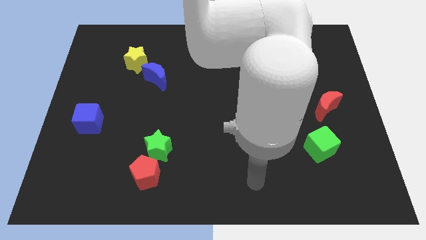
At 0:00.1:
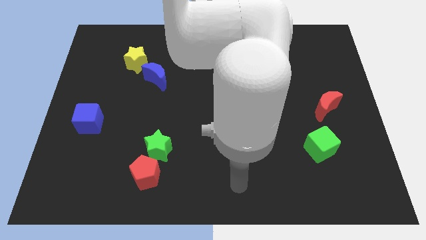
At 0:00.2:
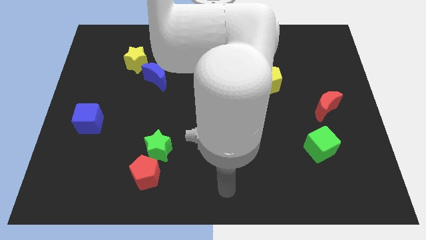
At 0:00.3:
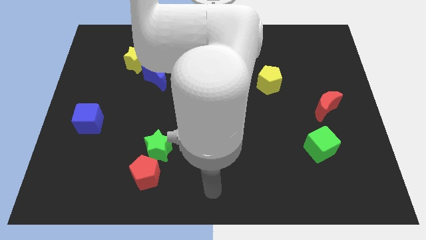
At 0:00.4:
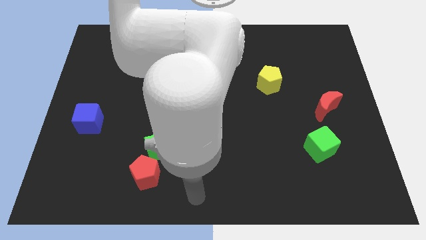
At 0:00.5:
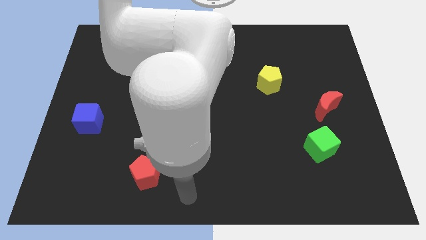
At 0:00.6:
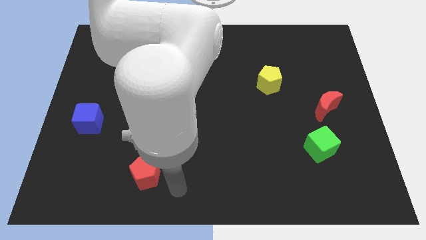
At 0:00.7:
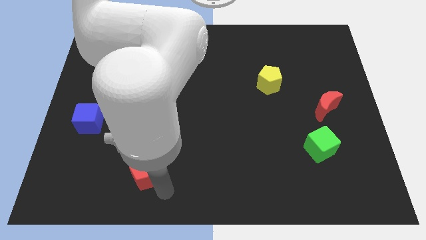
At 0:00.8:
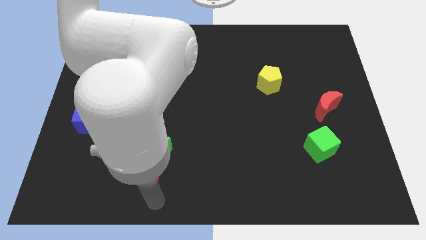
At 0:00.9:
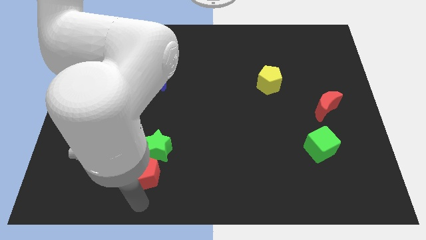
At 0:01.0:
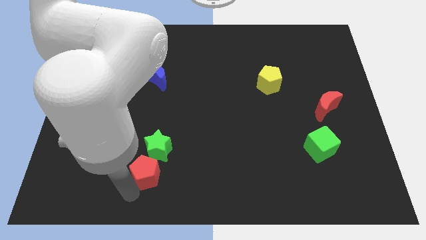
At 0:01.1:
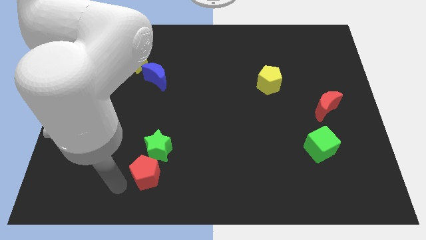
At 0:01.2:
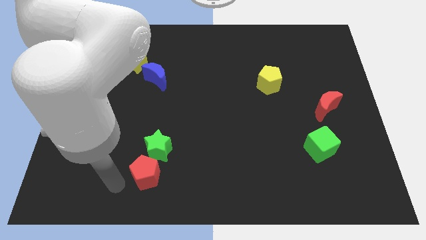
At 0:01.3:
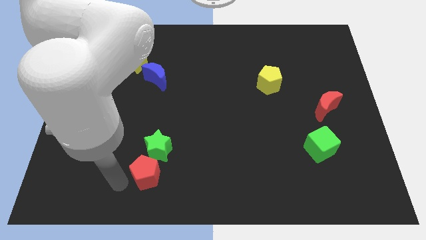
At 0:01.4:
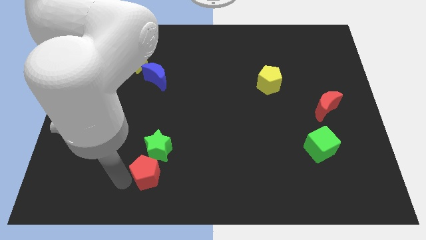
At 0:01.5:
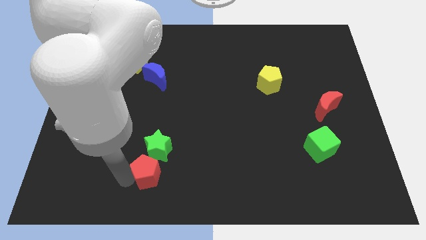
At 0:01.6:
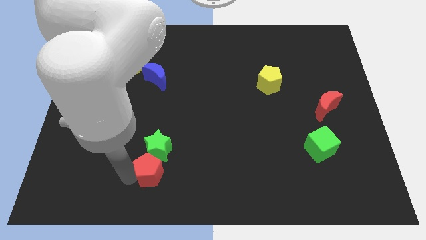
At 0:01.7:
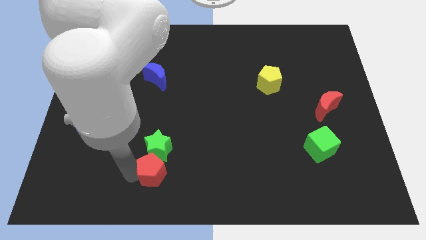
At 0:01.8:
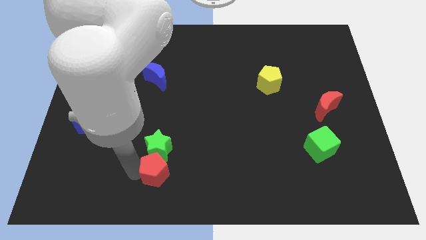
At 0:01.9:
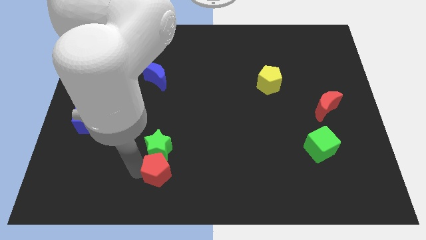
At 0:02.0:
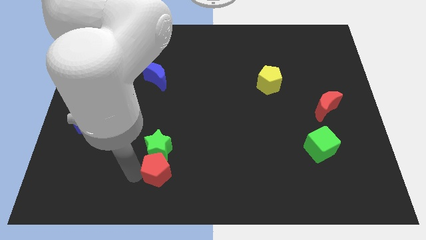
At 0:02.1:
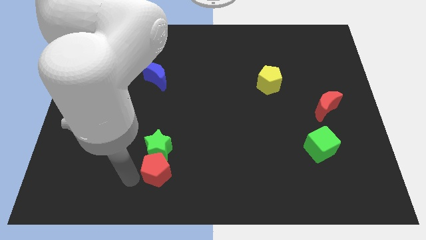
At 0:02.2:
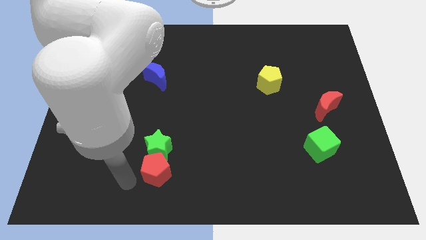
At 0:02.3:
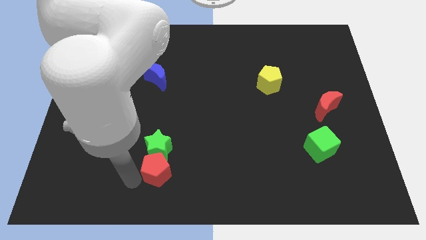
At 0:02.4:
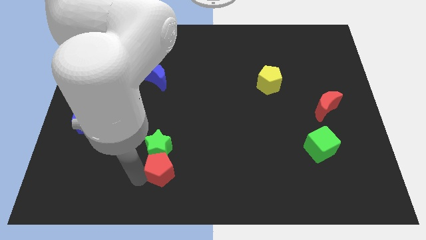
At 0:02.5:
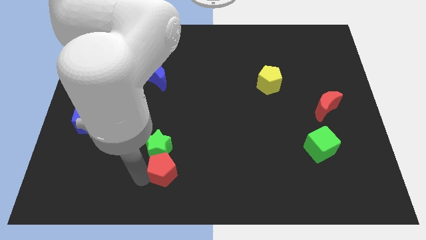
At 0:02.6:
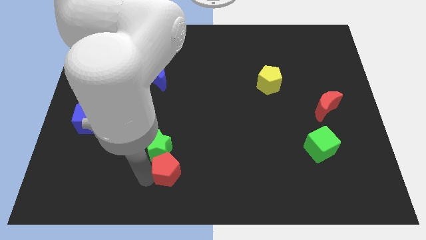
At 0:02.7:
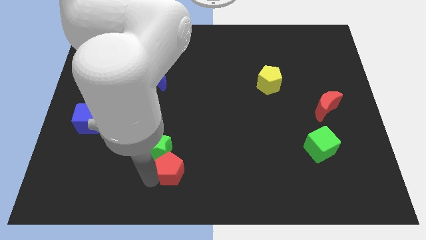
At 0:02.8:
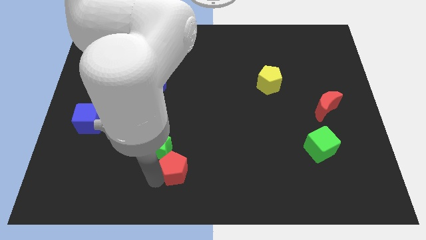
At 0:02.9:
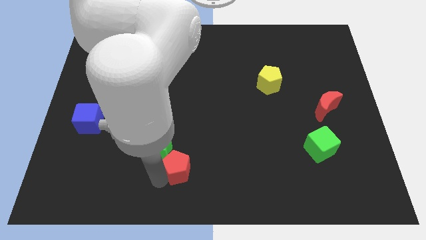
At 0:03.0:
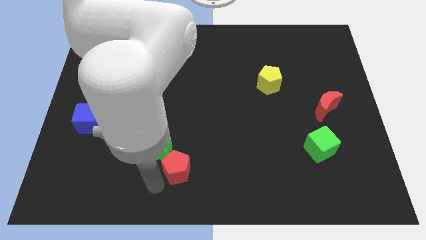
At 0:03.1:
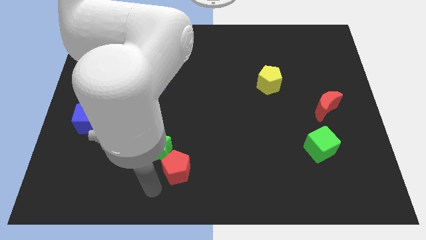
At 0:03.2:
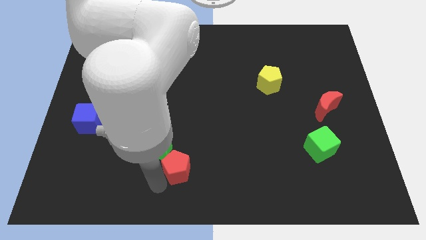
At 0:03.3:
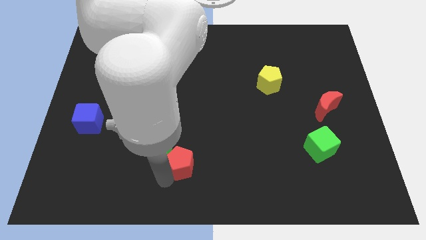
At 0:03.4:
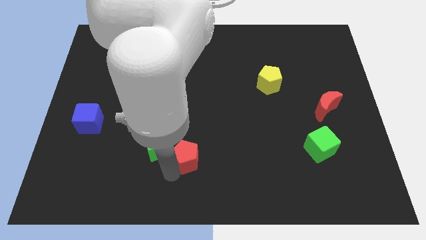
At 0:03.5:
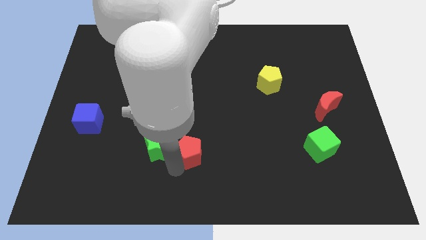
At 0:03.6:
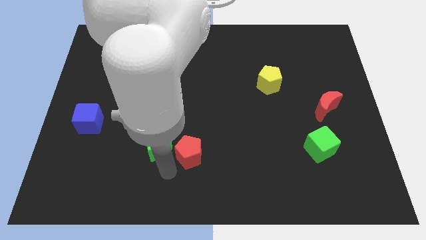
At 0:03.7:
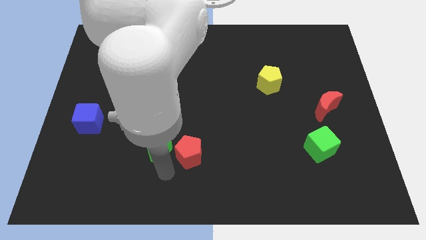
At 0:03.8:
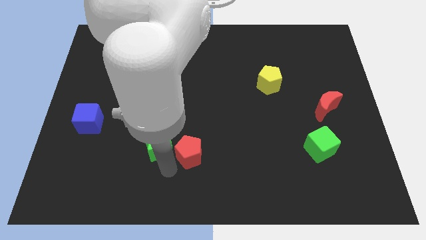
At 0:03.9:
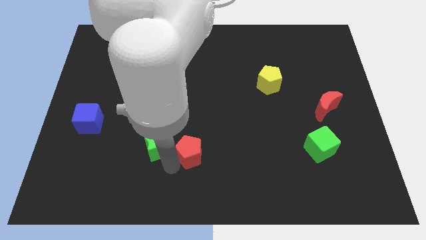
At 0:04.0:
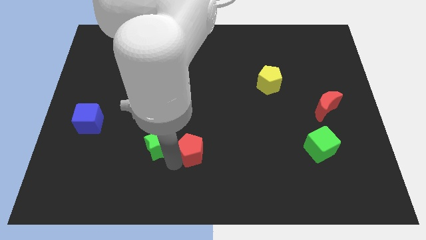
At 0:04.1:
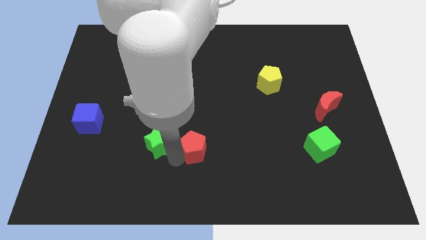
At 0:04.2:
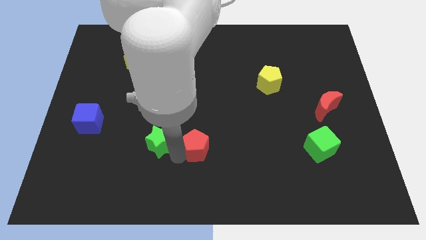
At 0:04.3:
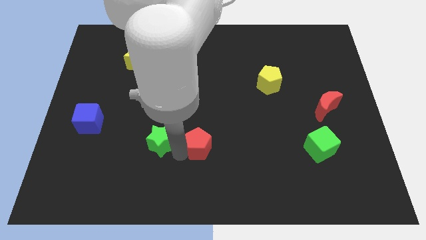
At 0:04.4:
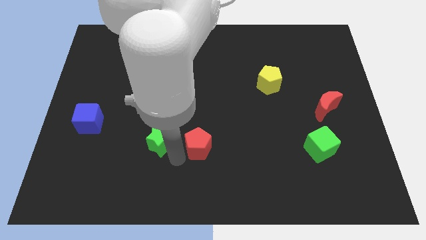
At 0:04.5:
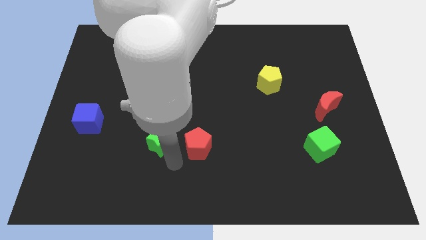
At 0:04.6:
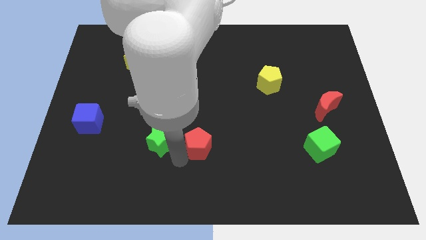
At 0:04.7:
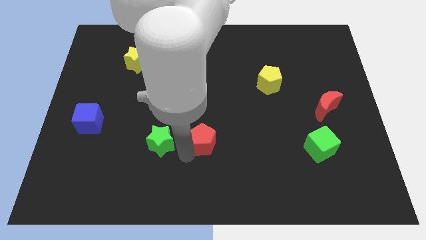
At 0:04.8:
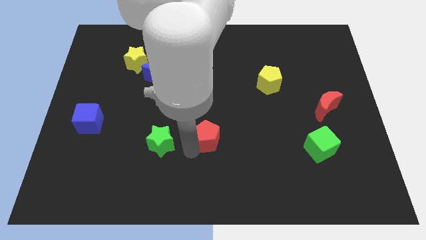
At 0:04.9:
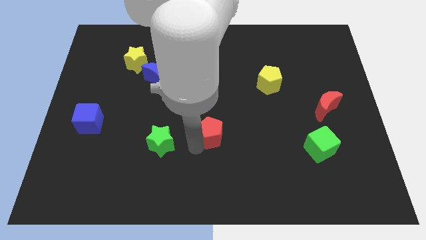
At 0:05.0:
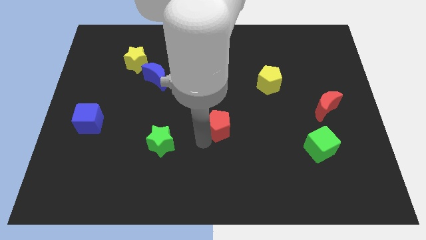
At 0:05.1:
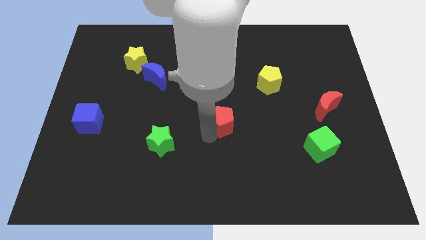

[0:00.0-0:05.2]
slide the red pentagon up and then right

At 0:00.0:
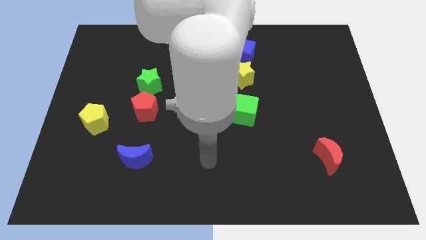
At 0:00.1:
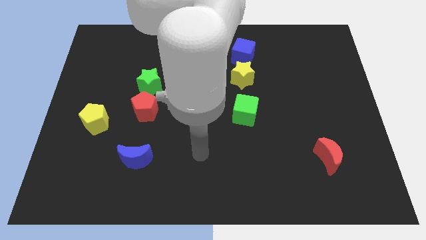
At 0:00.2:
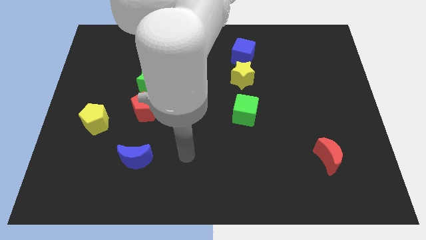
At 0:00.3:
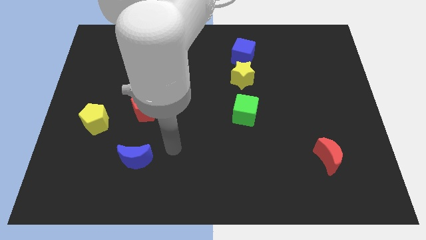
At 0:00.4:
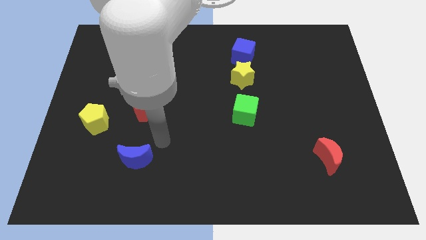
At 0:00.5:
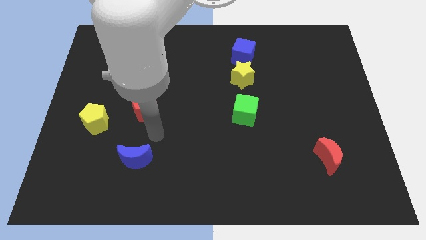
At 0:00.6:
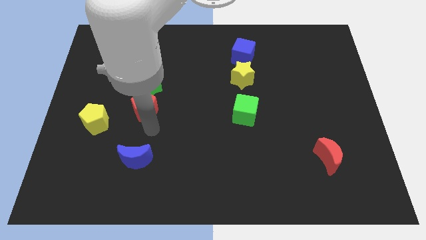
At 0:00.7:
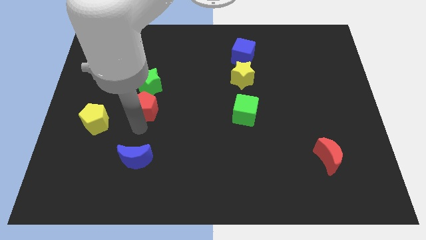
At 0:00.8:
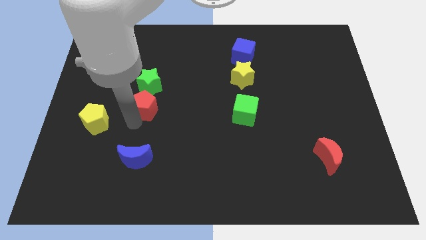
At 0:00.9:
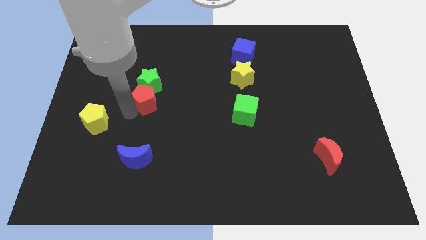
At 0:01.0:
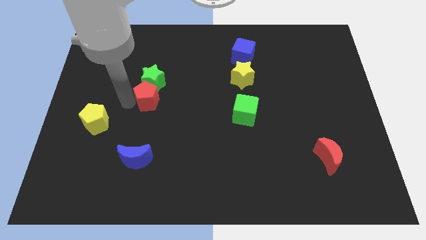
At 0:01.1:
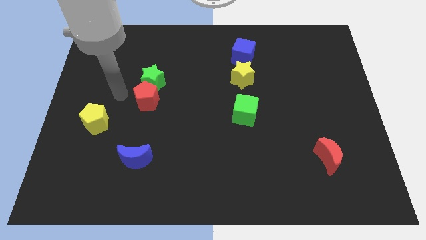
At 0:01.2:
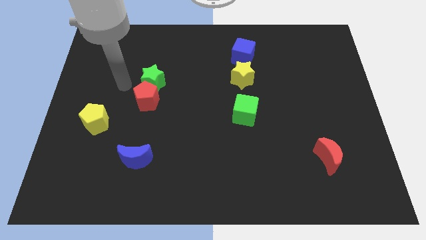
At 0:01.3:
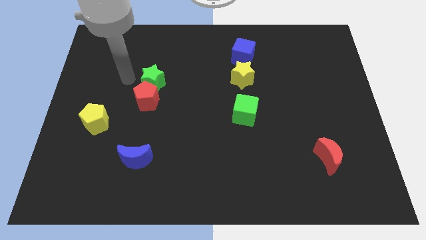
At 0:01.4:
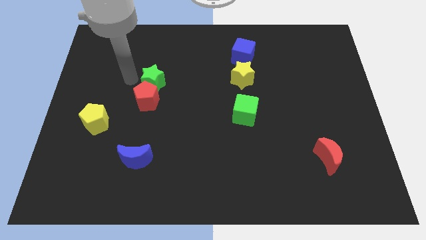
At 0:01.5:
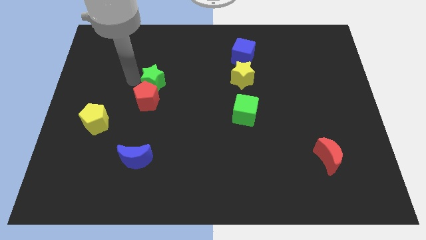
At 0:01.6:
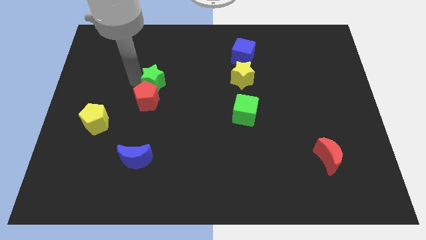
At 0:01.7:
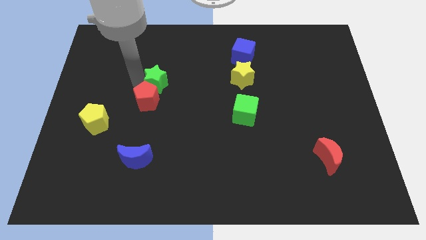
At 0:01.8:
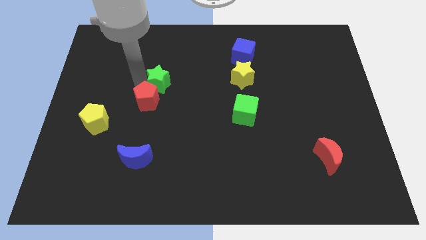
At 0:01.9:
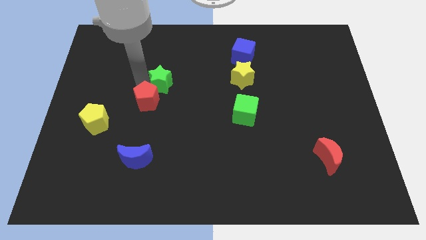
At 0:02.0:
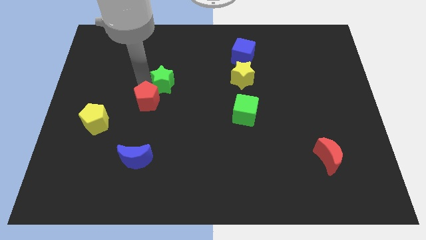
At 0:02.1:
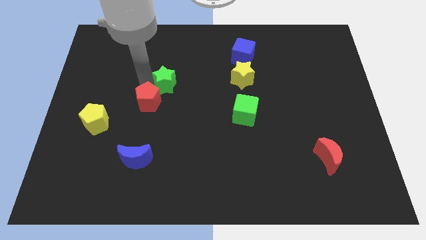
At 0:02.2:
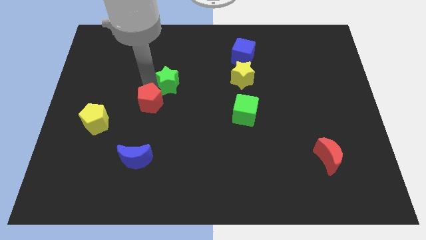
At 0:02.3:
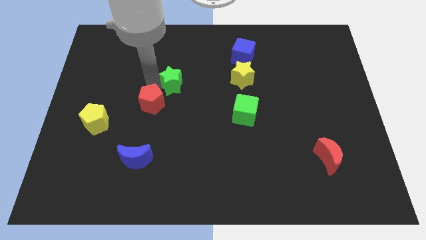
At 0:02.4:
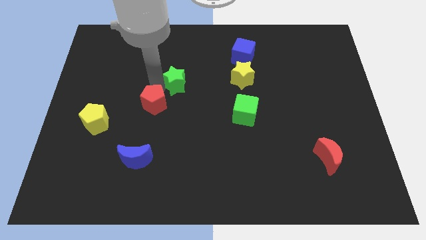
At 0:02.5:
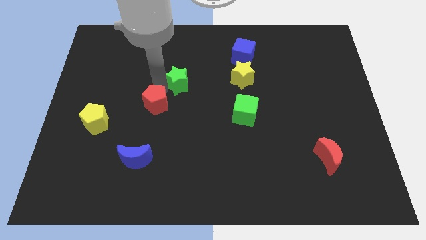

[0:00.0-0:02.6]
slightly slide the green star to the right

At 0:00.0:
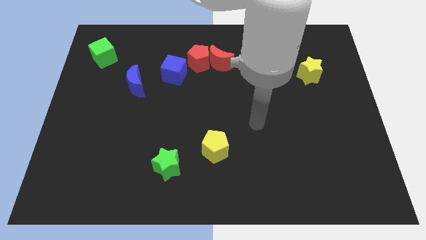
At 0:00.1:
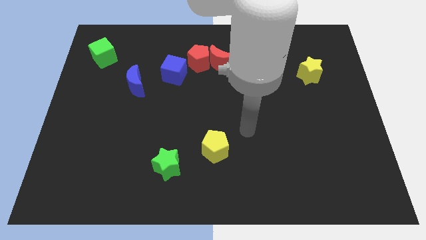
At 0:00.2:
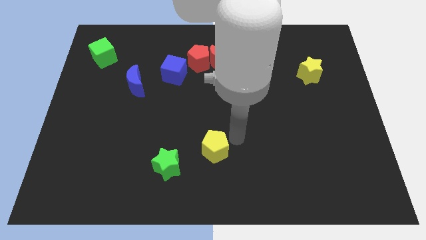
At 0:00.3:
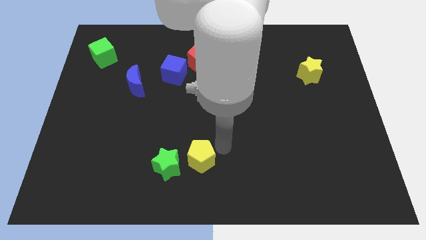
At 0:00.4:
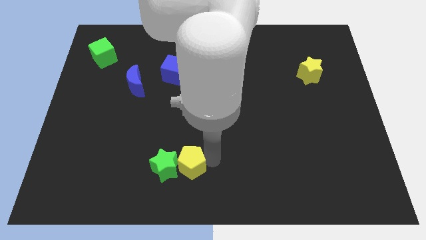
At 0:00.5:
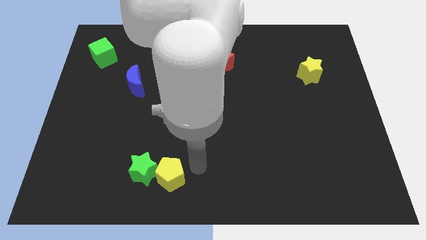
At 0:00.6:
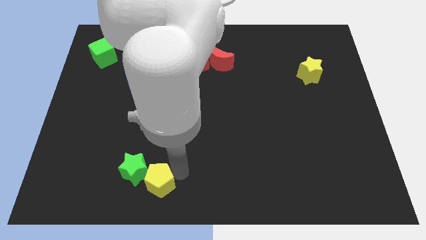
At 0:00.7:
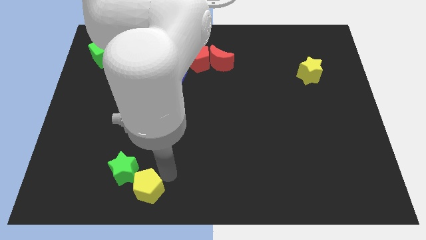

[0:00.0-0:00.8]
slide the green star left slightly
